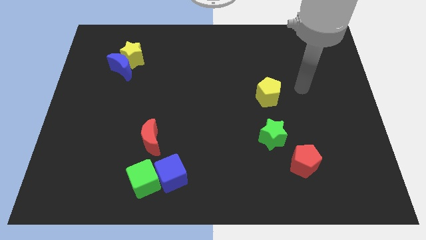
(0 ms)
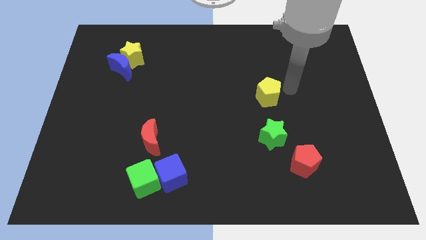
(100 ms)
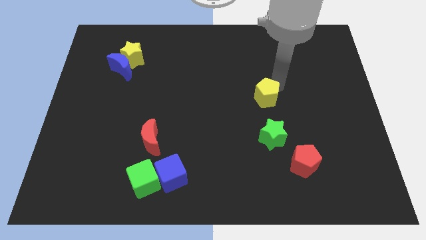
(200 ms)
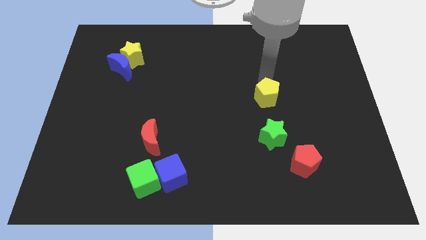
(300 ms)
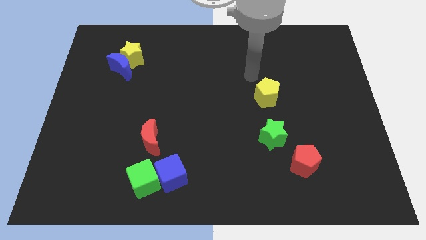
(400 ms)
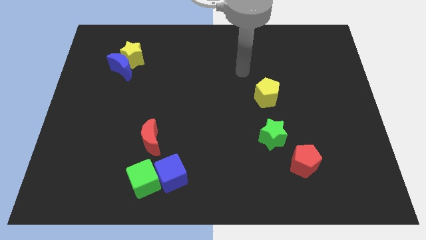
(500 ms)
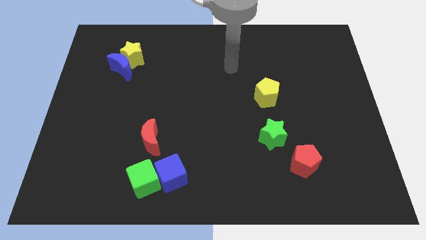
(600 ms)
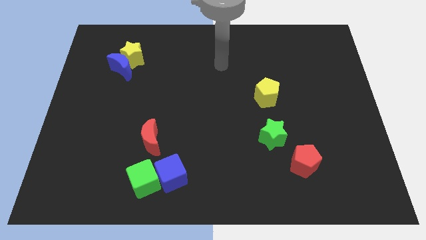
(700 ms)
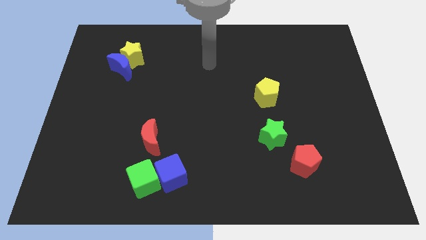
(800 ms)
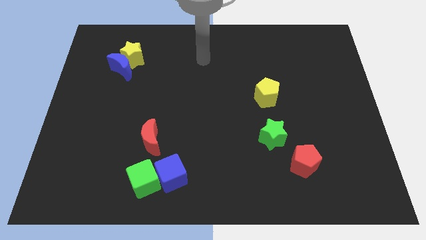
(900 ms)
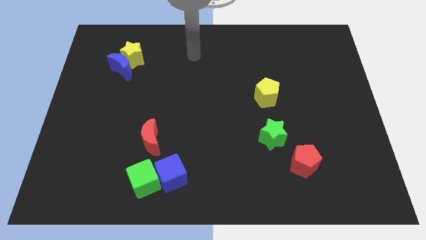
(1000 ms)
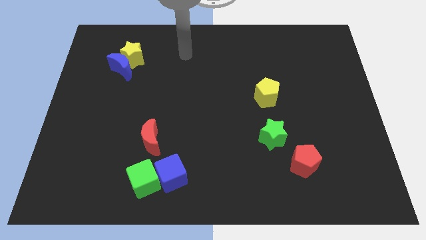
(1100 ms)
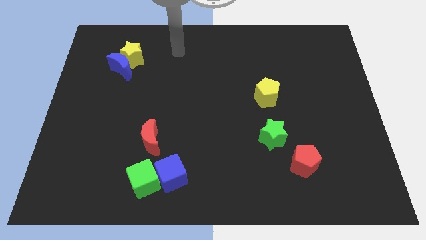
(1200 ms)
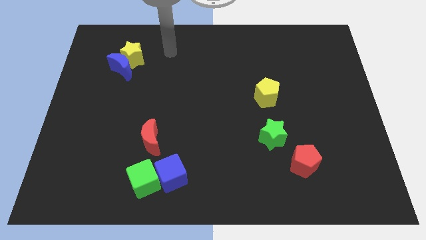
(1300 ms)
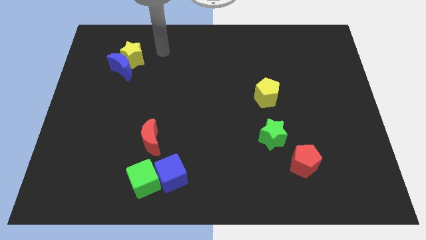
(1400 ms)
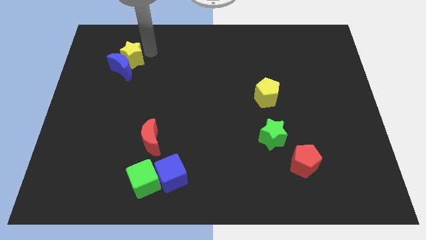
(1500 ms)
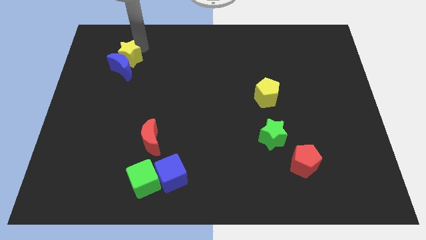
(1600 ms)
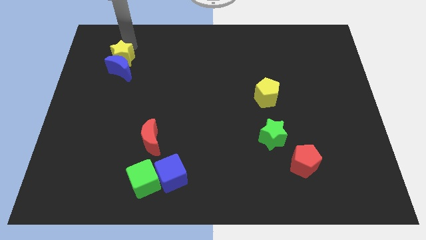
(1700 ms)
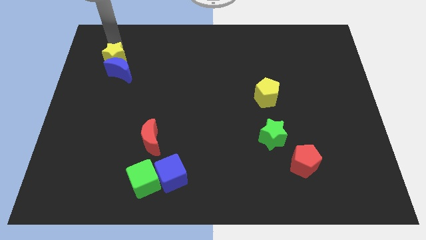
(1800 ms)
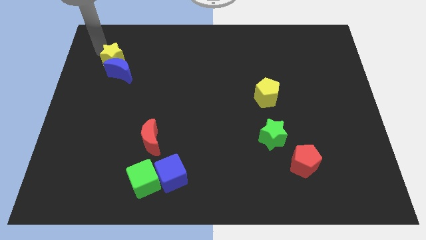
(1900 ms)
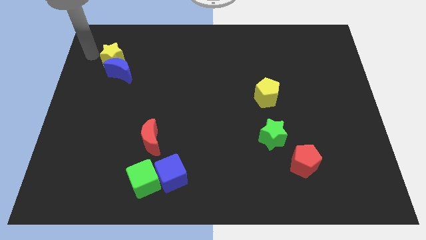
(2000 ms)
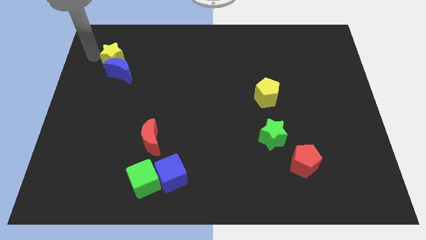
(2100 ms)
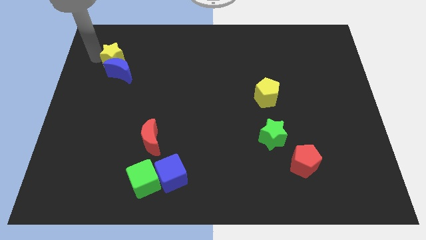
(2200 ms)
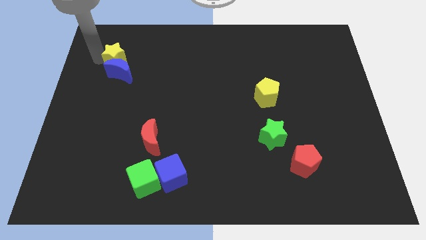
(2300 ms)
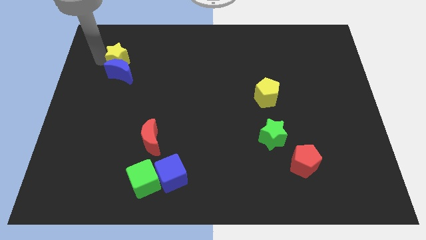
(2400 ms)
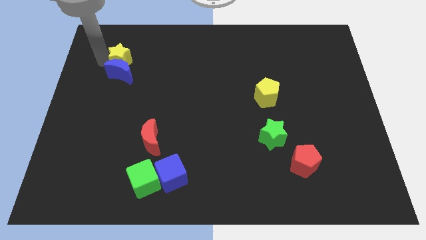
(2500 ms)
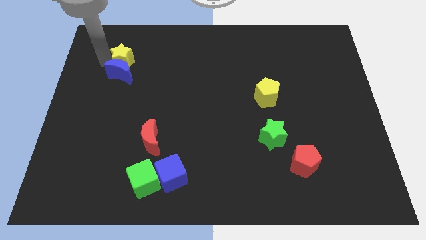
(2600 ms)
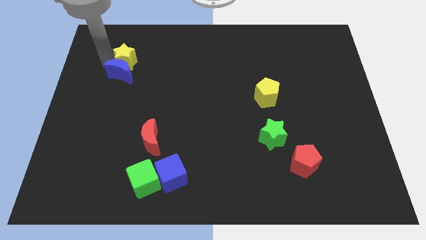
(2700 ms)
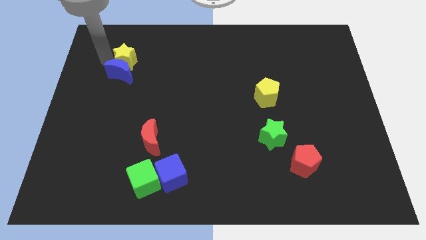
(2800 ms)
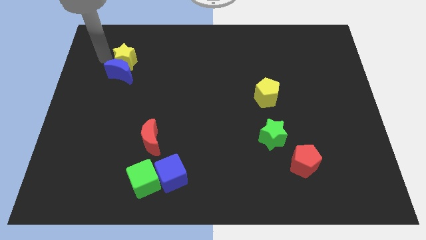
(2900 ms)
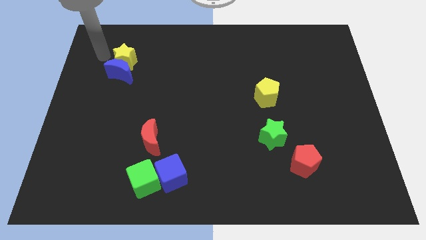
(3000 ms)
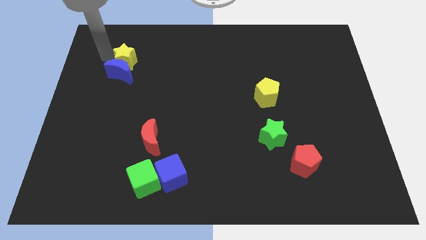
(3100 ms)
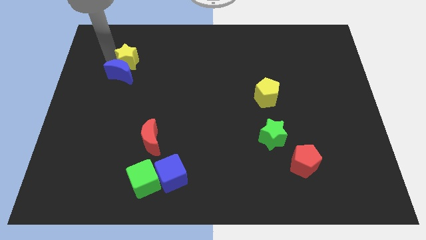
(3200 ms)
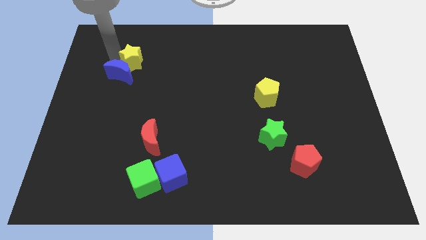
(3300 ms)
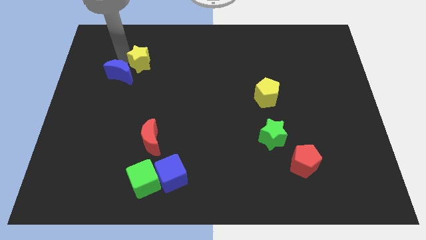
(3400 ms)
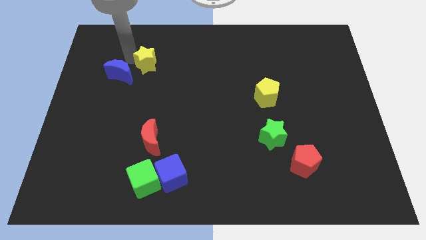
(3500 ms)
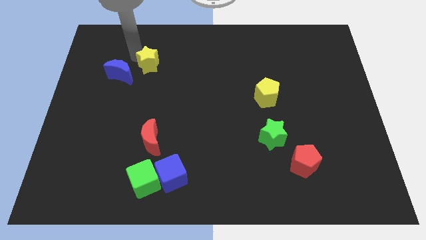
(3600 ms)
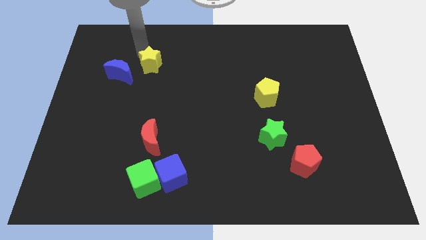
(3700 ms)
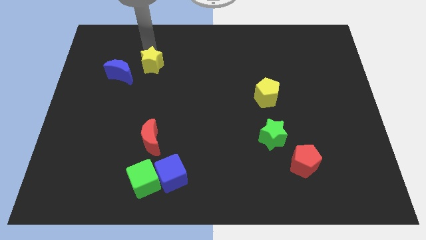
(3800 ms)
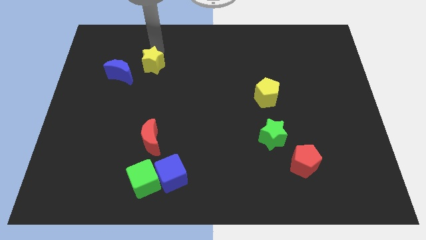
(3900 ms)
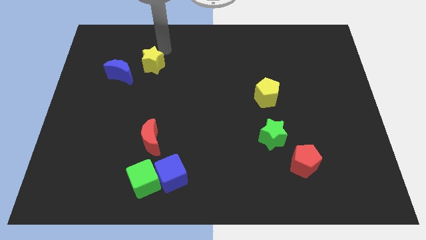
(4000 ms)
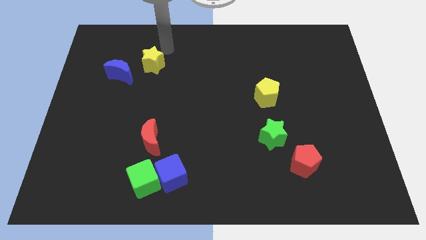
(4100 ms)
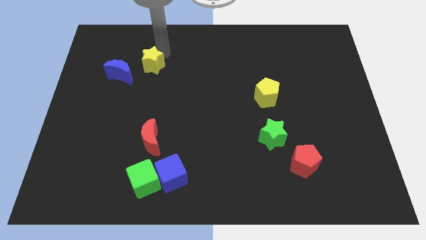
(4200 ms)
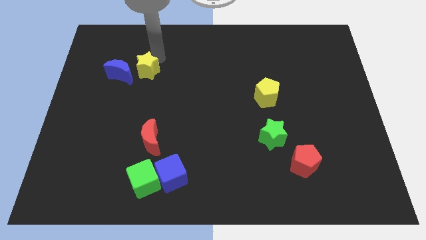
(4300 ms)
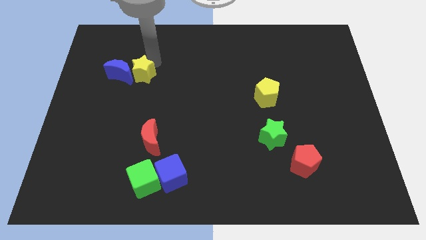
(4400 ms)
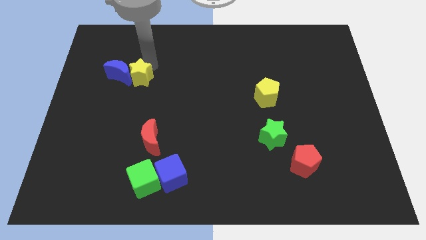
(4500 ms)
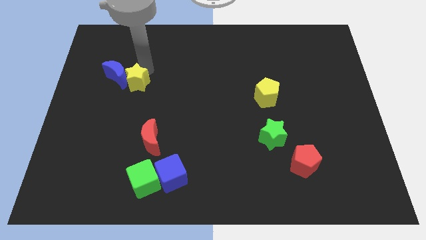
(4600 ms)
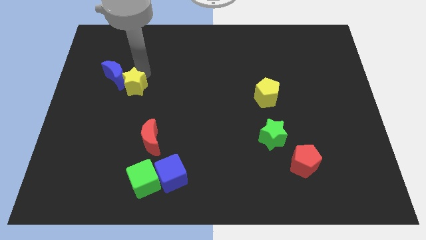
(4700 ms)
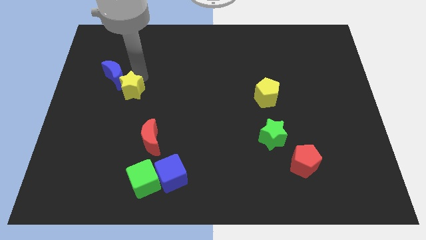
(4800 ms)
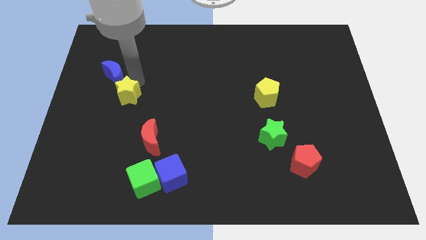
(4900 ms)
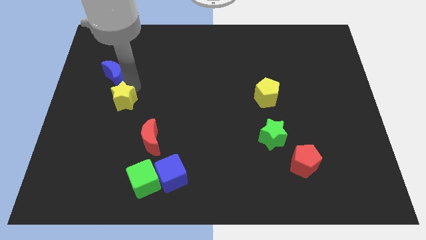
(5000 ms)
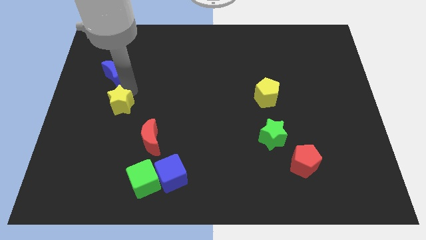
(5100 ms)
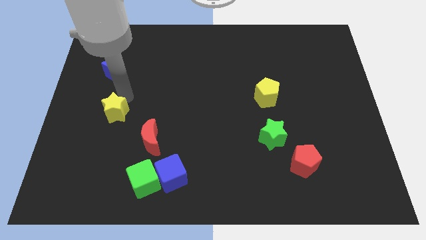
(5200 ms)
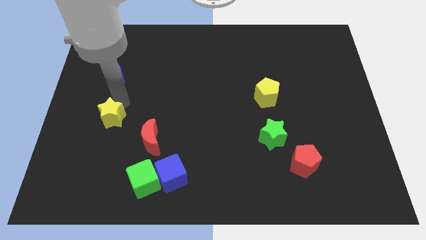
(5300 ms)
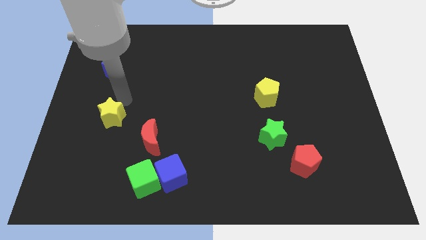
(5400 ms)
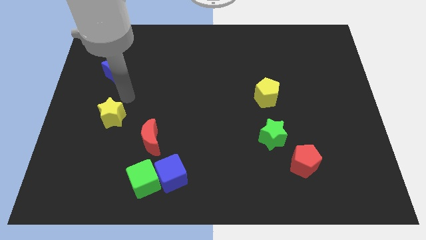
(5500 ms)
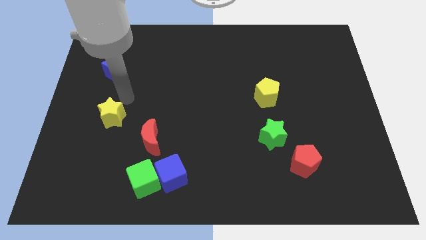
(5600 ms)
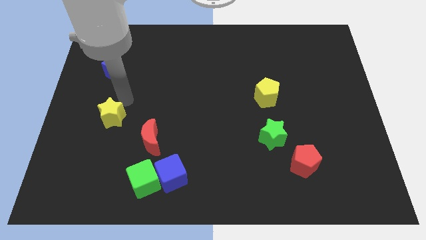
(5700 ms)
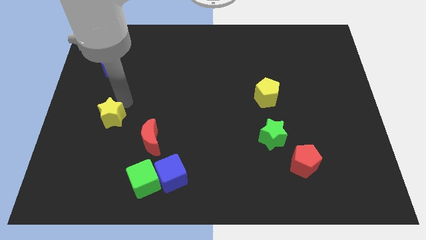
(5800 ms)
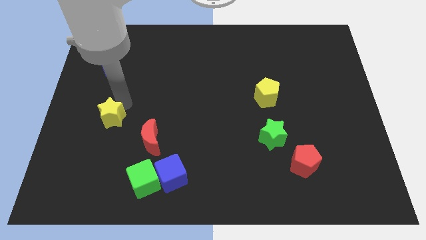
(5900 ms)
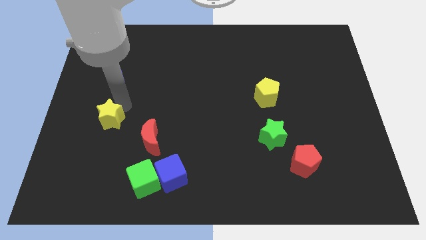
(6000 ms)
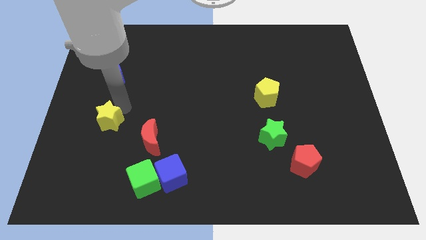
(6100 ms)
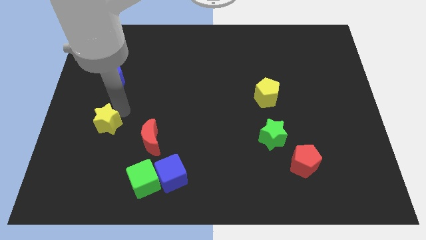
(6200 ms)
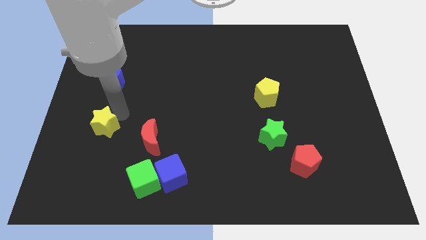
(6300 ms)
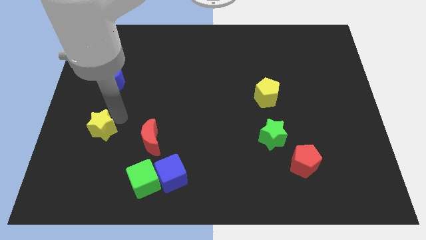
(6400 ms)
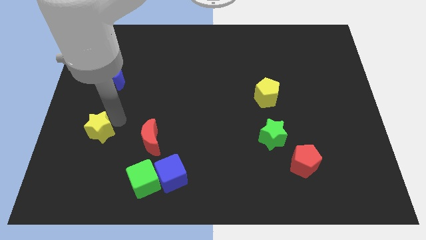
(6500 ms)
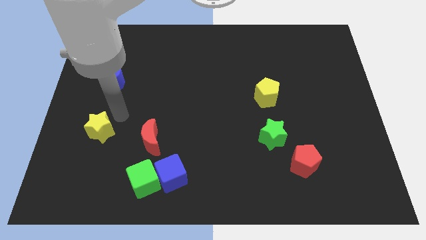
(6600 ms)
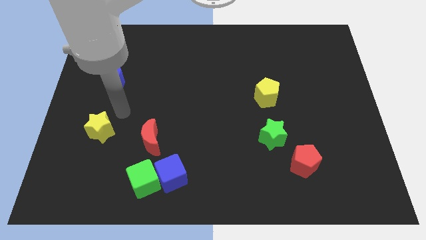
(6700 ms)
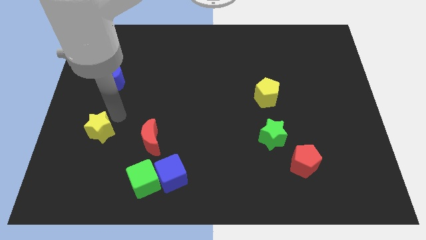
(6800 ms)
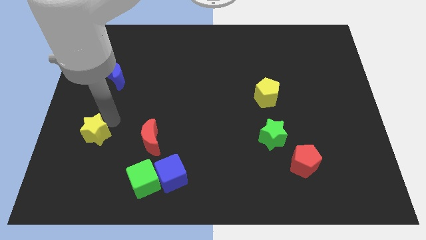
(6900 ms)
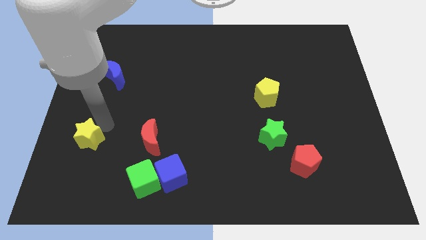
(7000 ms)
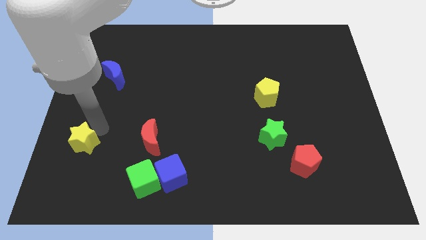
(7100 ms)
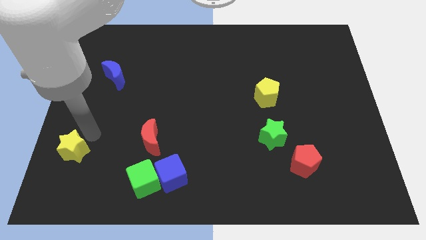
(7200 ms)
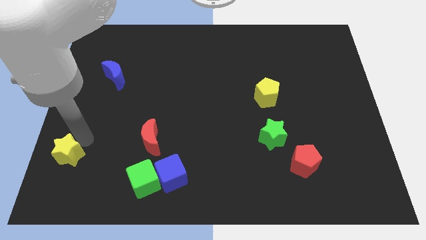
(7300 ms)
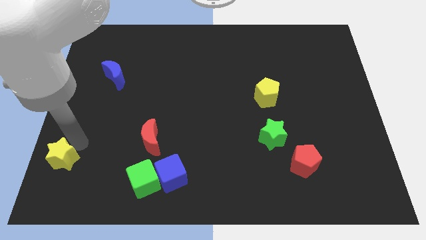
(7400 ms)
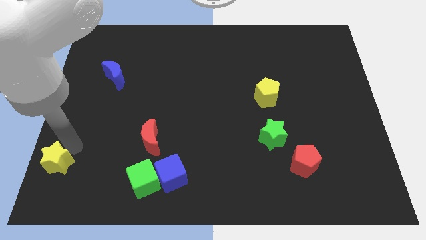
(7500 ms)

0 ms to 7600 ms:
slide the yellow star to the bottom left of the board
